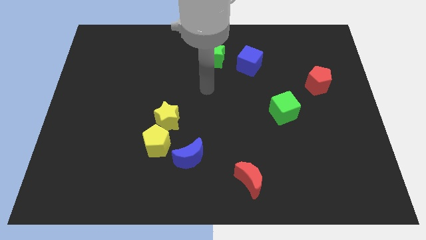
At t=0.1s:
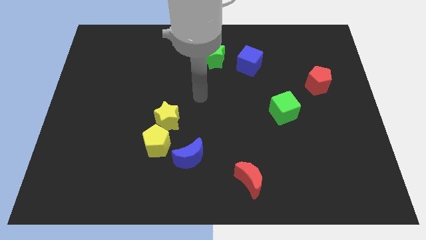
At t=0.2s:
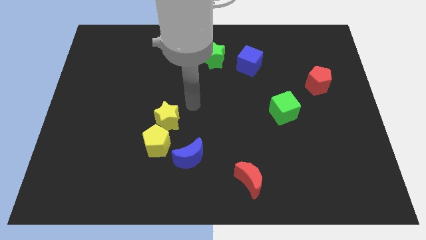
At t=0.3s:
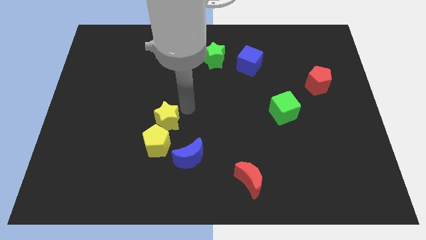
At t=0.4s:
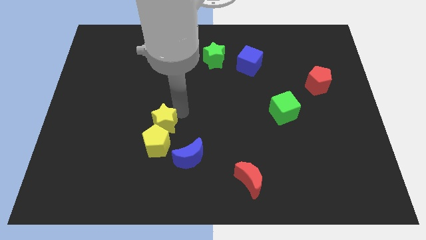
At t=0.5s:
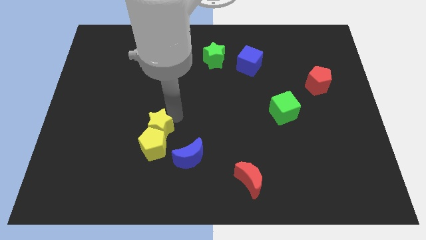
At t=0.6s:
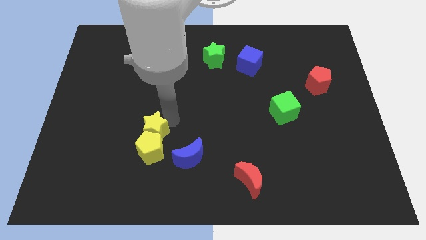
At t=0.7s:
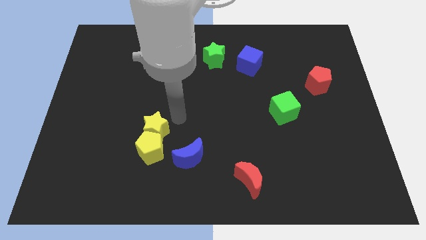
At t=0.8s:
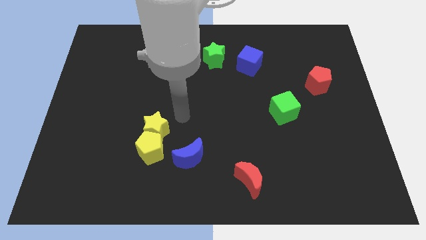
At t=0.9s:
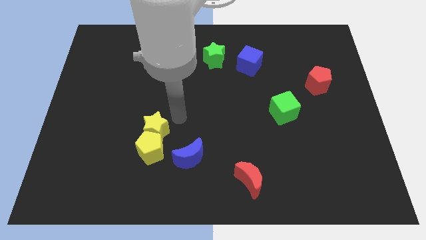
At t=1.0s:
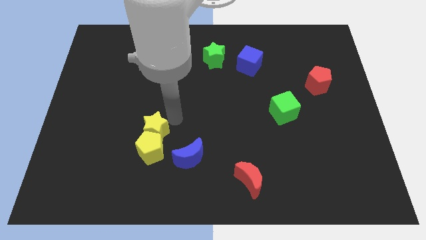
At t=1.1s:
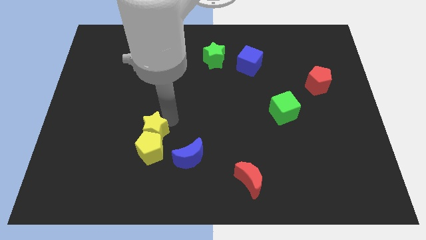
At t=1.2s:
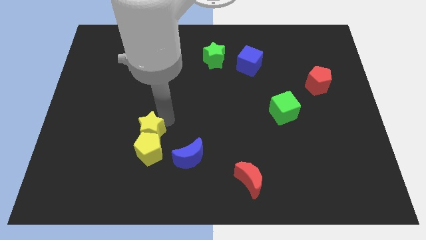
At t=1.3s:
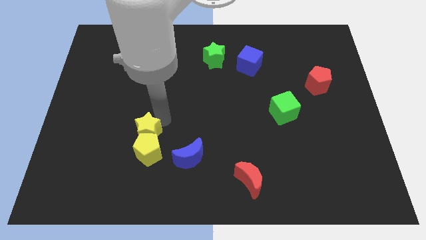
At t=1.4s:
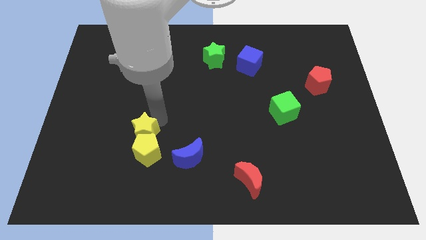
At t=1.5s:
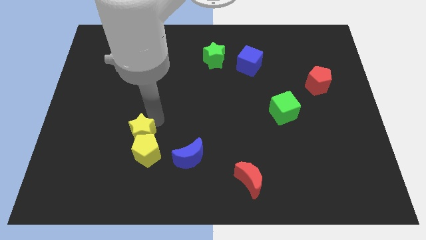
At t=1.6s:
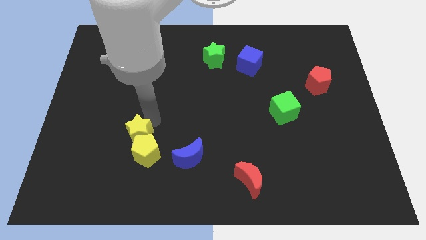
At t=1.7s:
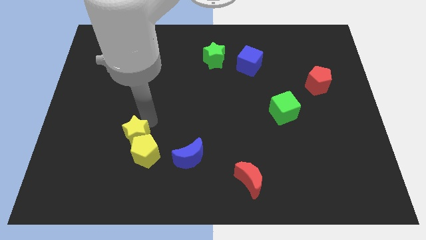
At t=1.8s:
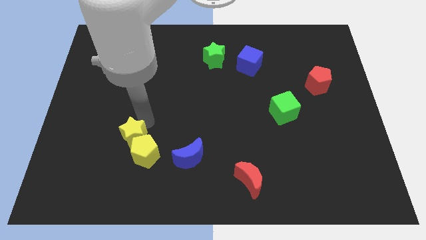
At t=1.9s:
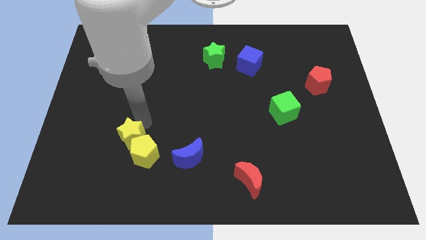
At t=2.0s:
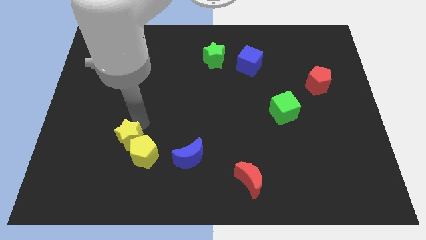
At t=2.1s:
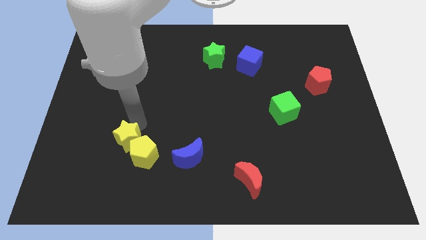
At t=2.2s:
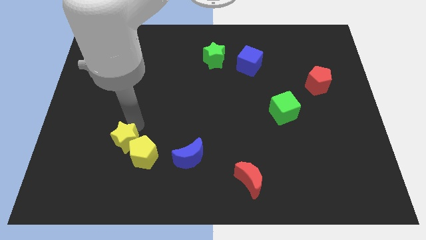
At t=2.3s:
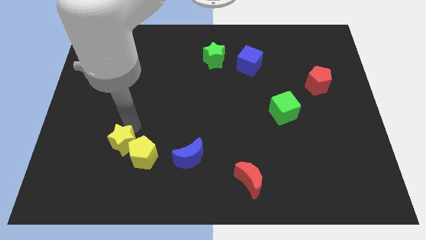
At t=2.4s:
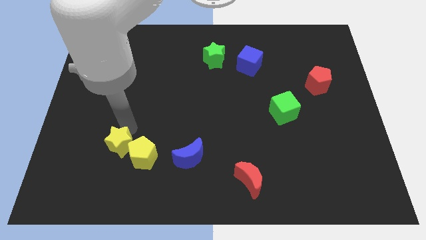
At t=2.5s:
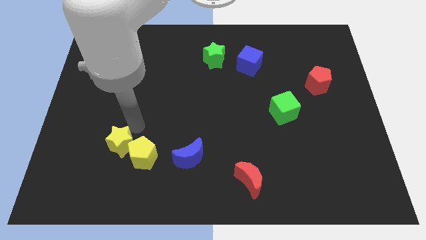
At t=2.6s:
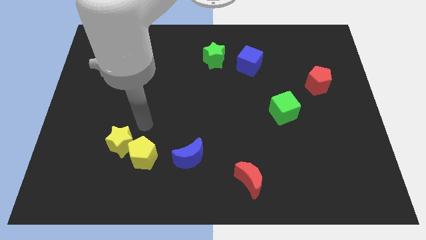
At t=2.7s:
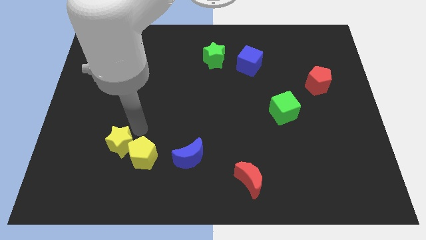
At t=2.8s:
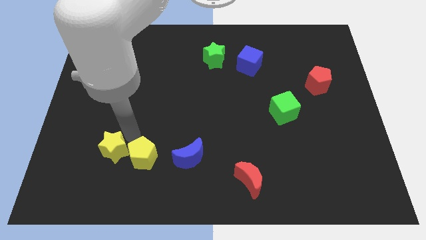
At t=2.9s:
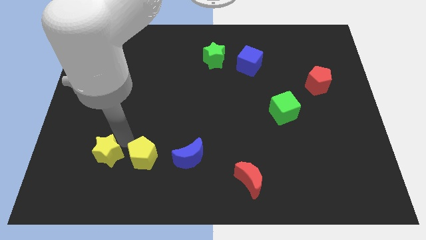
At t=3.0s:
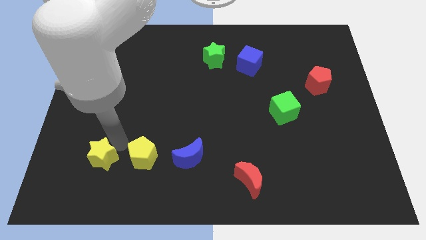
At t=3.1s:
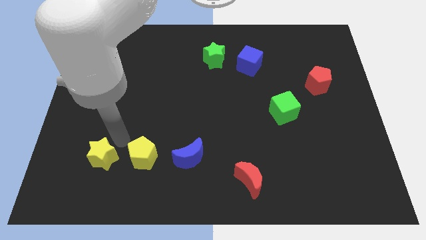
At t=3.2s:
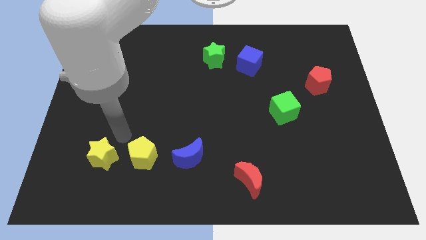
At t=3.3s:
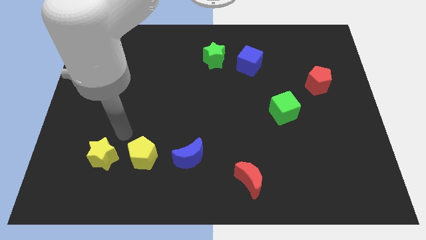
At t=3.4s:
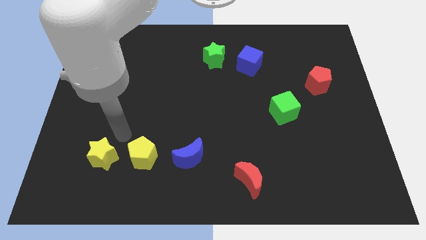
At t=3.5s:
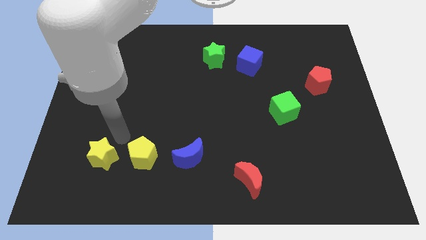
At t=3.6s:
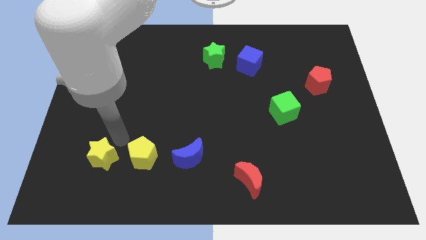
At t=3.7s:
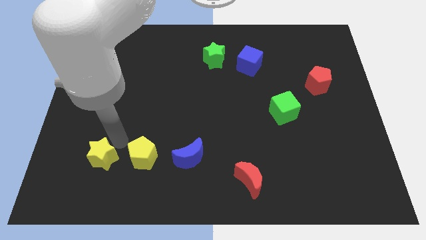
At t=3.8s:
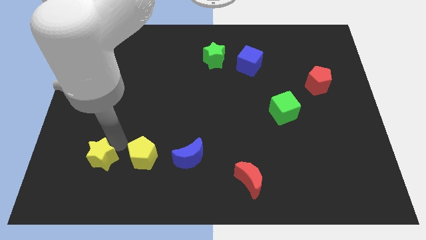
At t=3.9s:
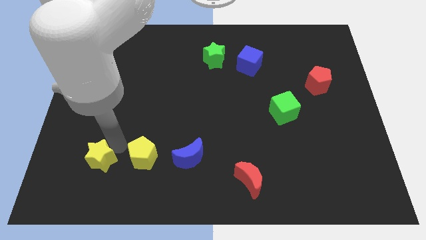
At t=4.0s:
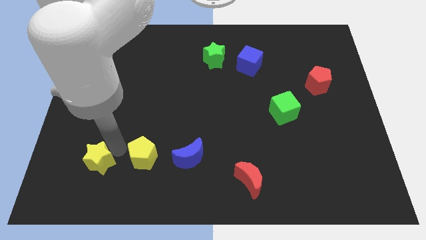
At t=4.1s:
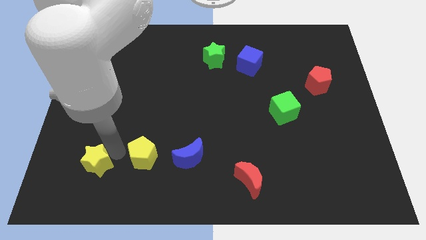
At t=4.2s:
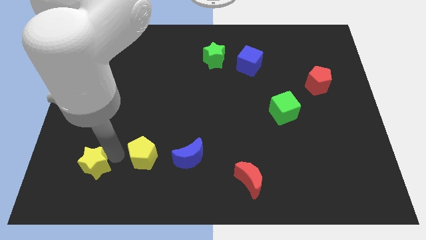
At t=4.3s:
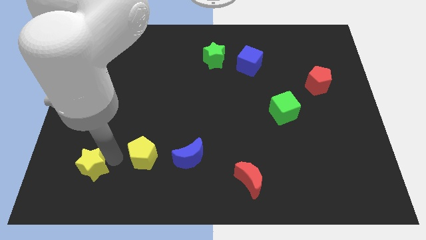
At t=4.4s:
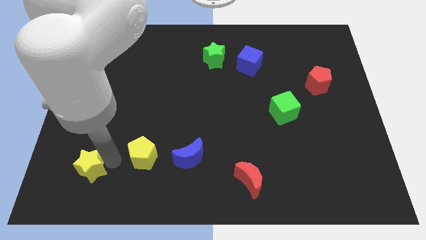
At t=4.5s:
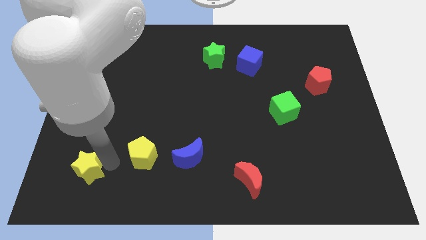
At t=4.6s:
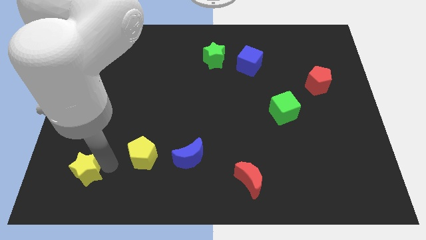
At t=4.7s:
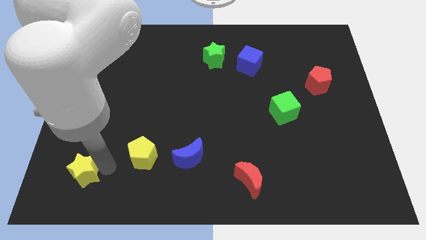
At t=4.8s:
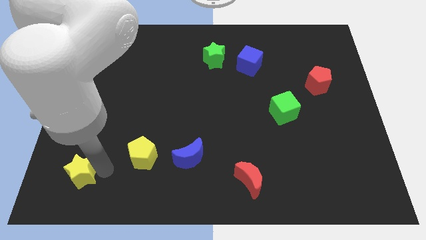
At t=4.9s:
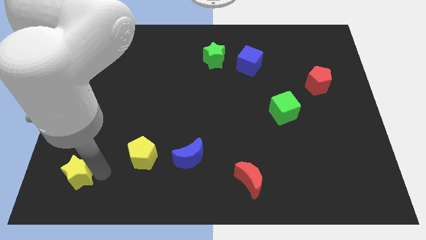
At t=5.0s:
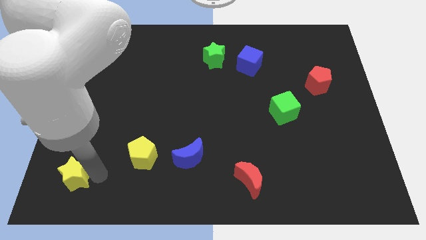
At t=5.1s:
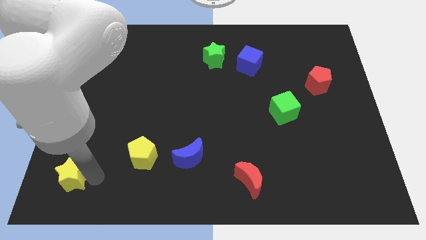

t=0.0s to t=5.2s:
slide the yellow star to the bottom left of the board

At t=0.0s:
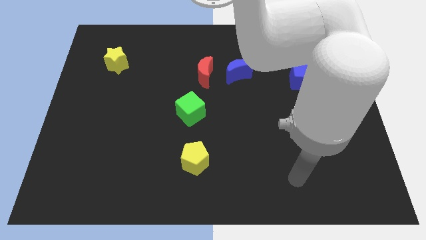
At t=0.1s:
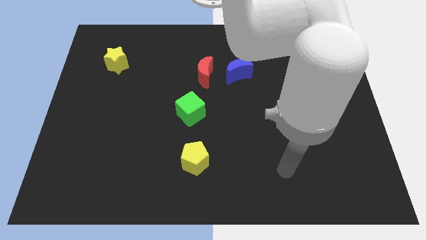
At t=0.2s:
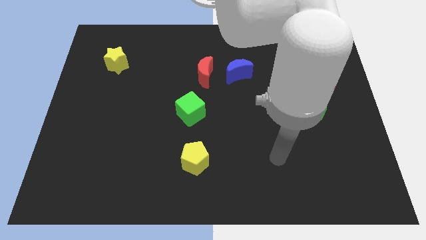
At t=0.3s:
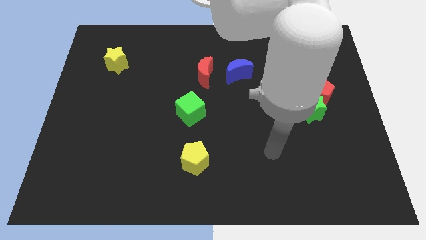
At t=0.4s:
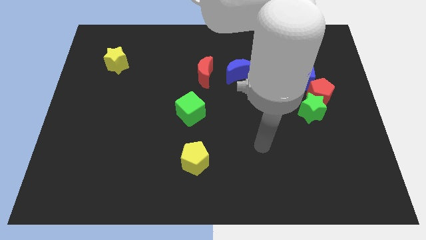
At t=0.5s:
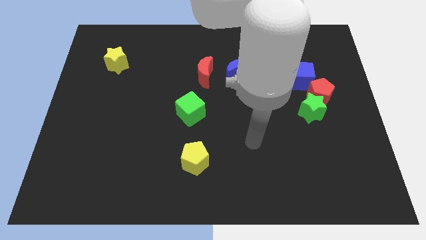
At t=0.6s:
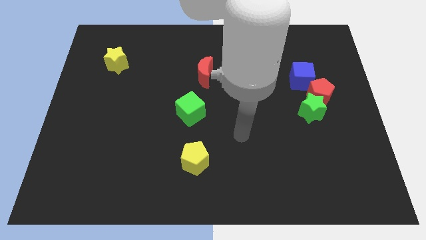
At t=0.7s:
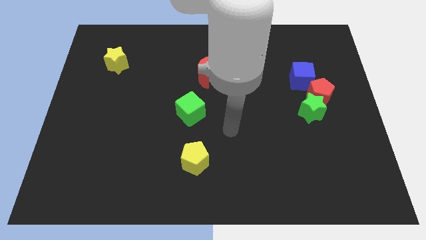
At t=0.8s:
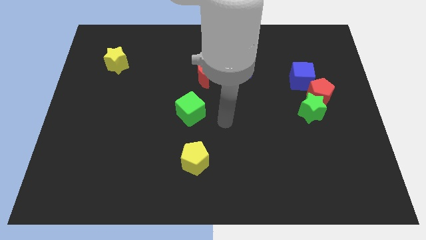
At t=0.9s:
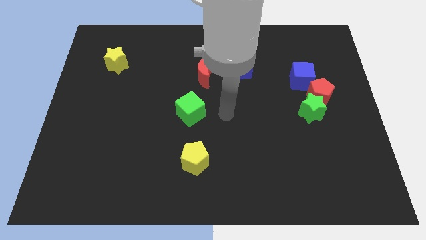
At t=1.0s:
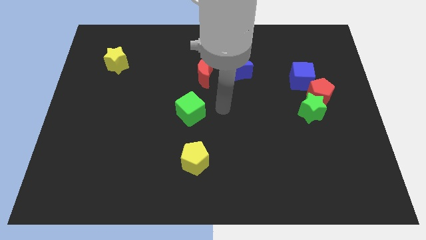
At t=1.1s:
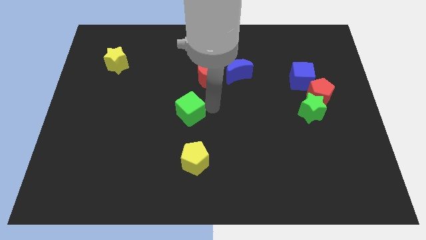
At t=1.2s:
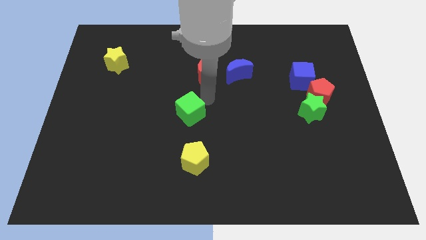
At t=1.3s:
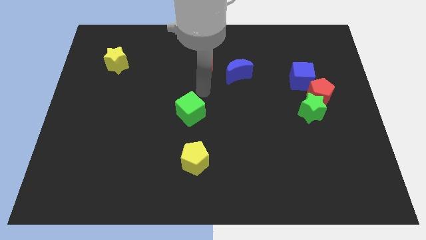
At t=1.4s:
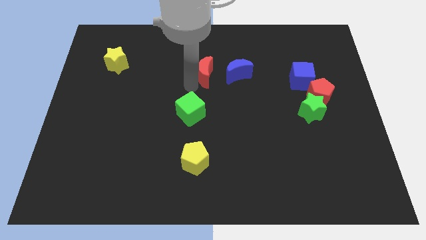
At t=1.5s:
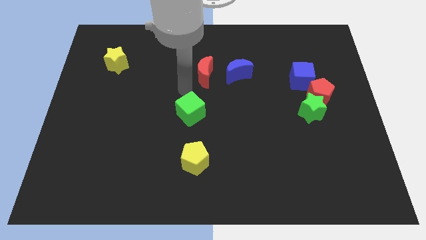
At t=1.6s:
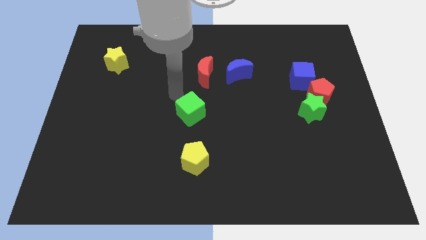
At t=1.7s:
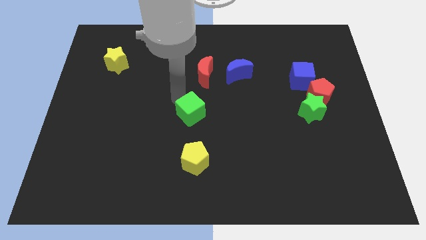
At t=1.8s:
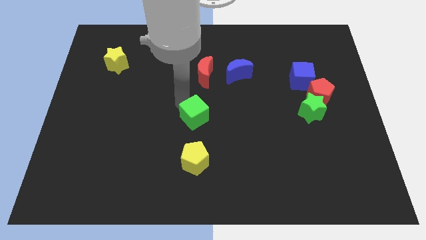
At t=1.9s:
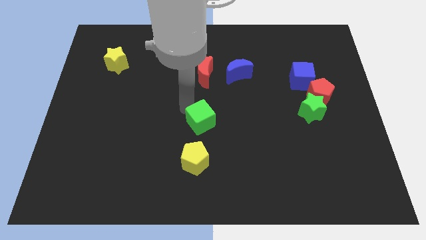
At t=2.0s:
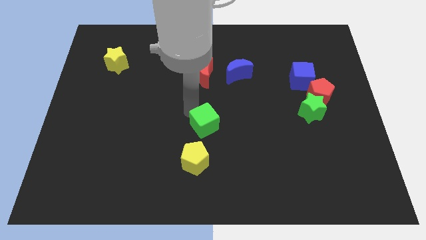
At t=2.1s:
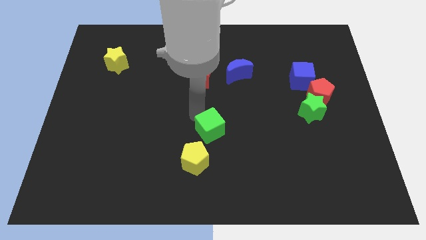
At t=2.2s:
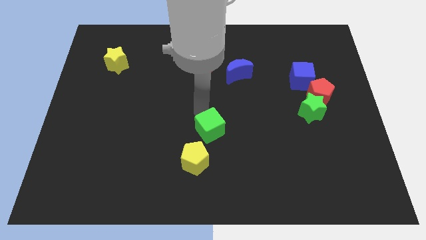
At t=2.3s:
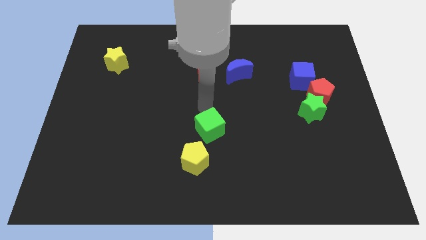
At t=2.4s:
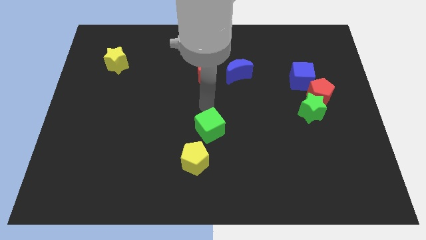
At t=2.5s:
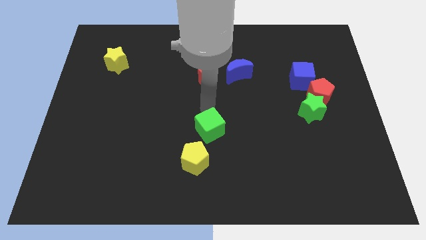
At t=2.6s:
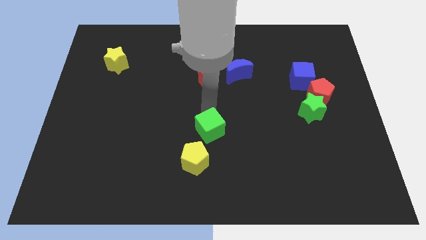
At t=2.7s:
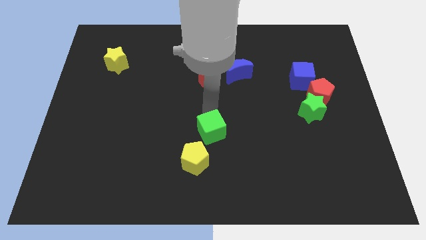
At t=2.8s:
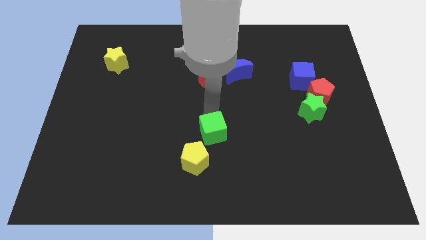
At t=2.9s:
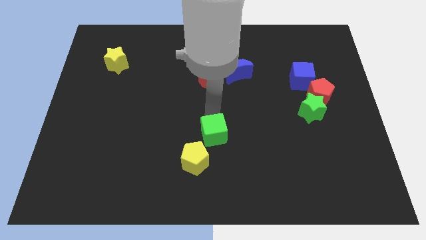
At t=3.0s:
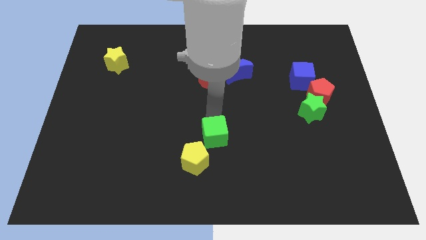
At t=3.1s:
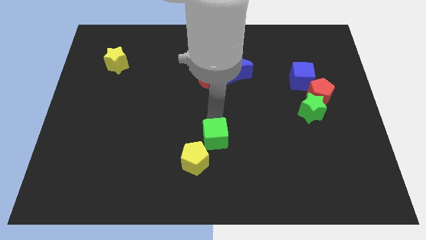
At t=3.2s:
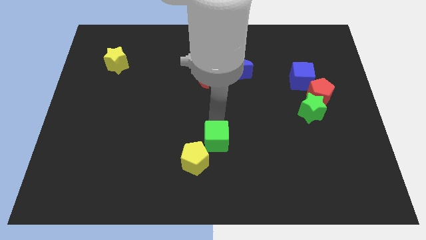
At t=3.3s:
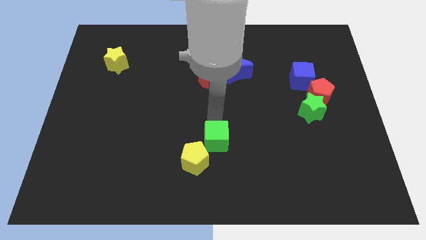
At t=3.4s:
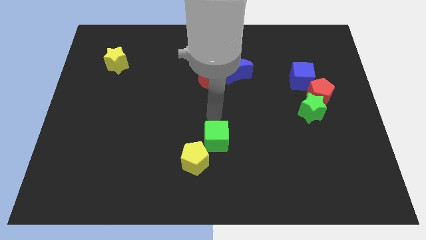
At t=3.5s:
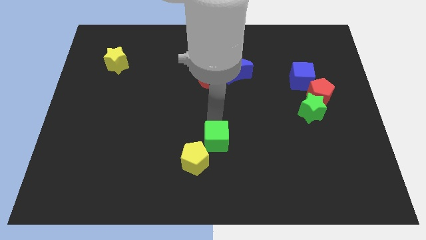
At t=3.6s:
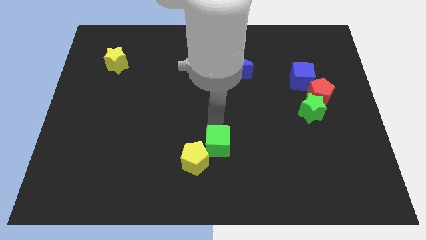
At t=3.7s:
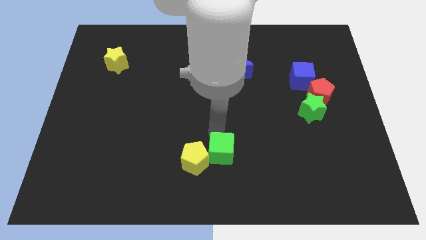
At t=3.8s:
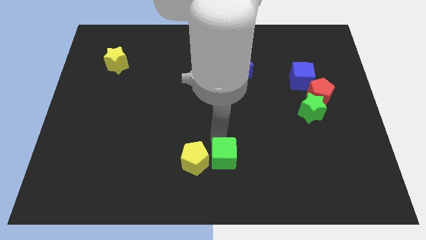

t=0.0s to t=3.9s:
move the green cube to the bottom
